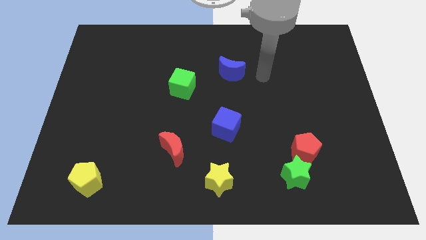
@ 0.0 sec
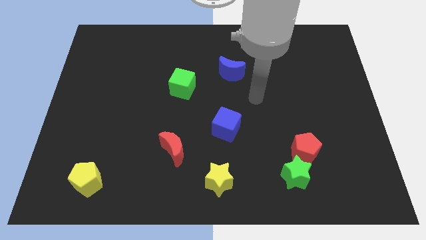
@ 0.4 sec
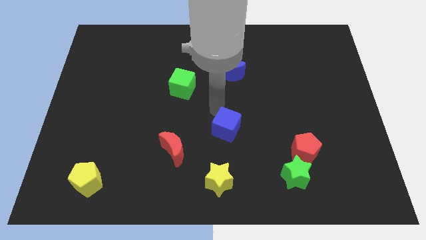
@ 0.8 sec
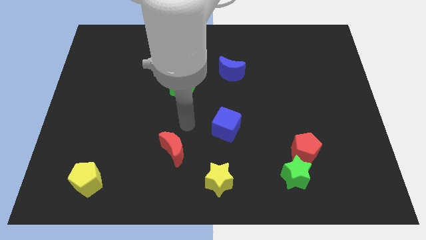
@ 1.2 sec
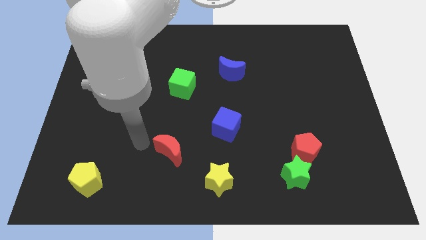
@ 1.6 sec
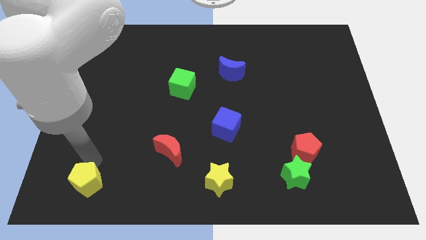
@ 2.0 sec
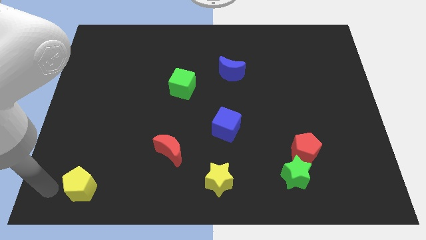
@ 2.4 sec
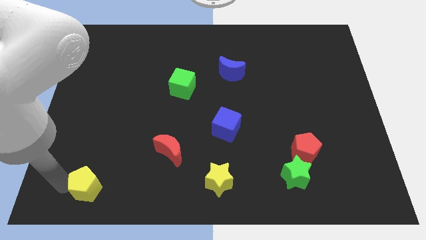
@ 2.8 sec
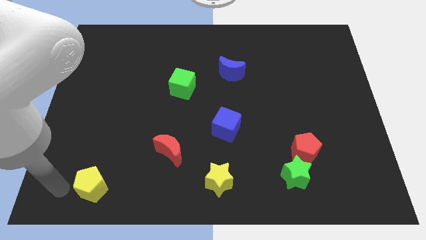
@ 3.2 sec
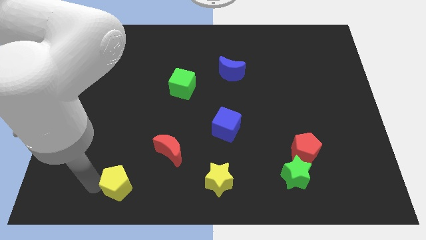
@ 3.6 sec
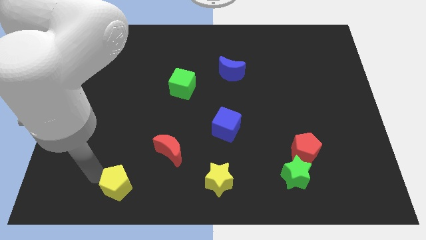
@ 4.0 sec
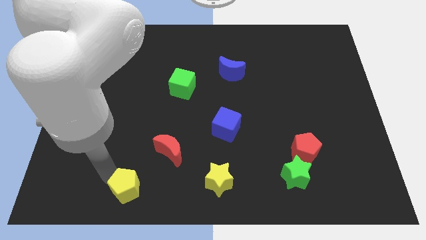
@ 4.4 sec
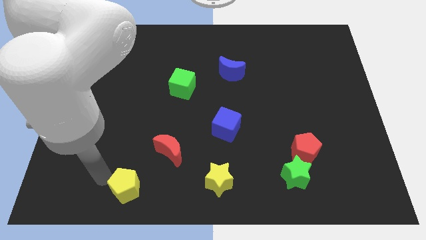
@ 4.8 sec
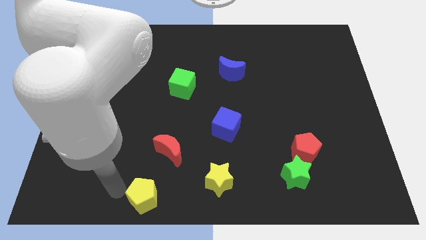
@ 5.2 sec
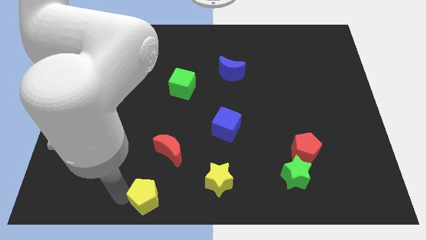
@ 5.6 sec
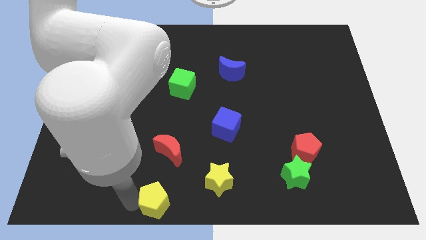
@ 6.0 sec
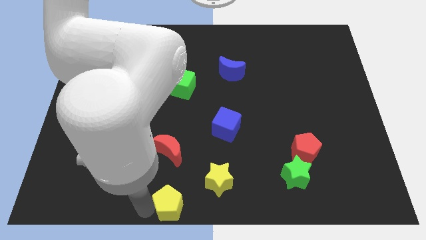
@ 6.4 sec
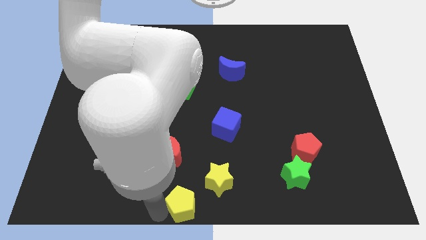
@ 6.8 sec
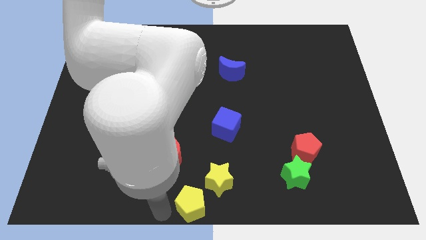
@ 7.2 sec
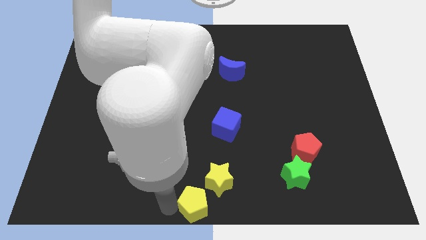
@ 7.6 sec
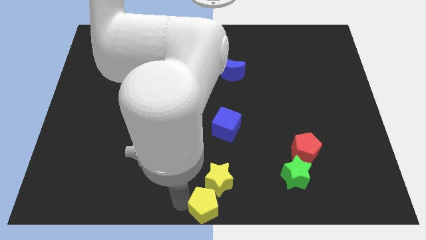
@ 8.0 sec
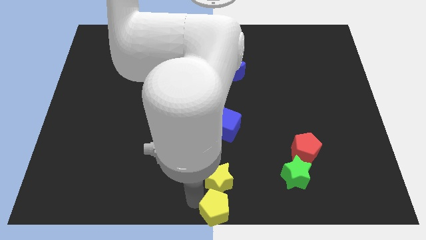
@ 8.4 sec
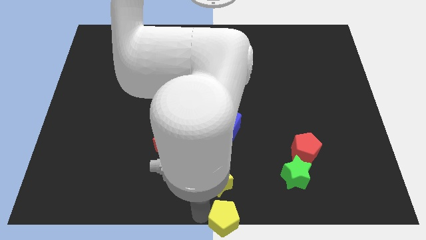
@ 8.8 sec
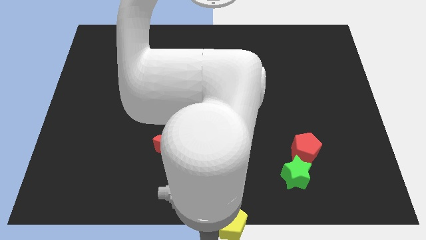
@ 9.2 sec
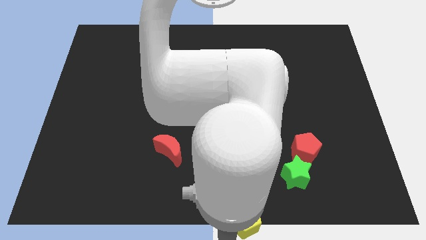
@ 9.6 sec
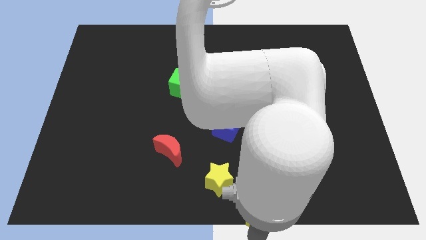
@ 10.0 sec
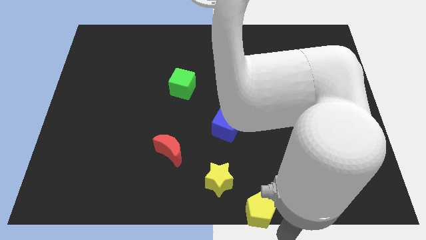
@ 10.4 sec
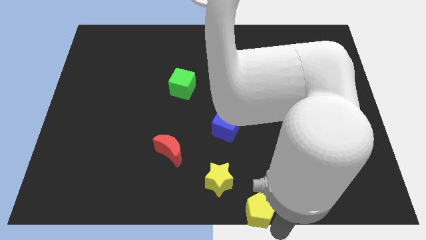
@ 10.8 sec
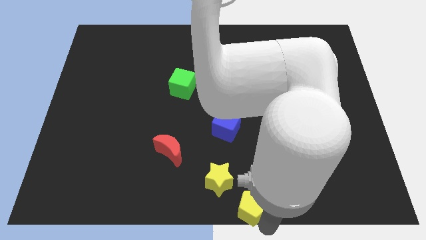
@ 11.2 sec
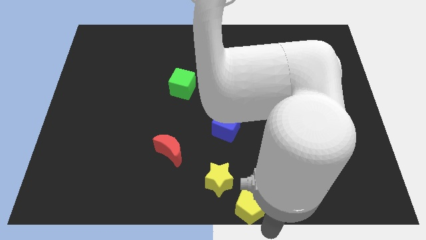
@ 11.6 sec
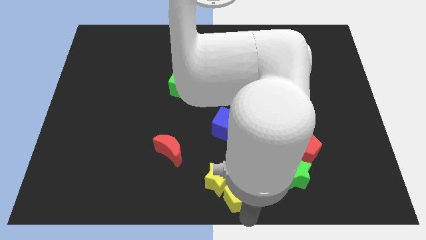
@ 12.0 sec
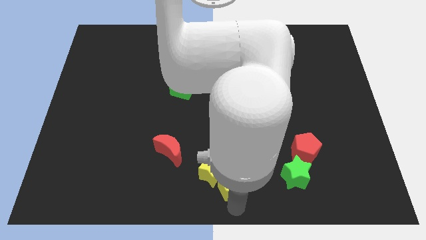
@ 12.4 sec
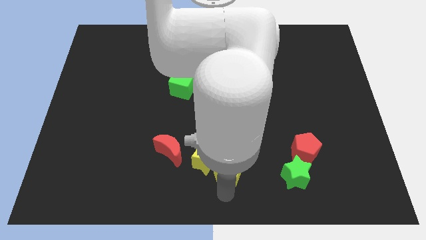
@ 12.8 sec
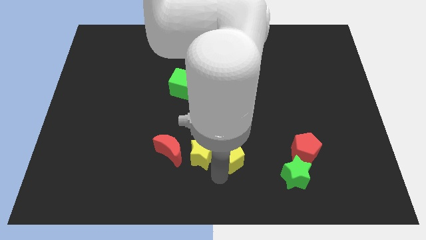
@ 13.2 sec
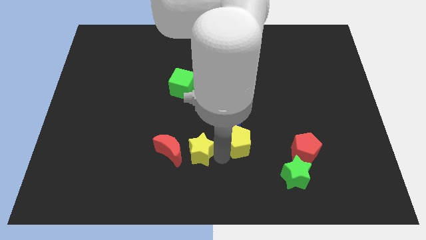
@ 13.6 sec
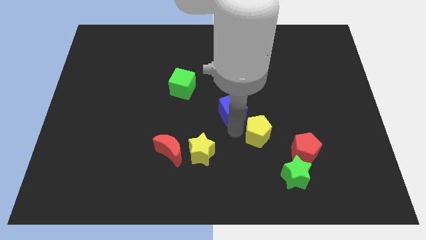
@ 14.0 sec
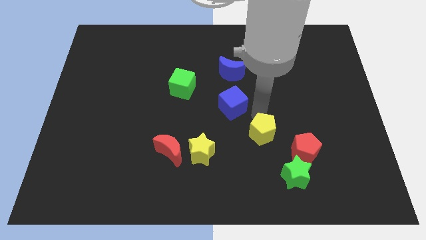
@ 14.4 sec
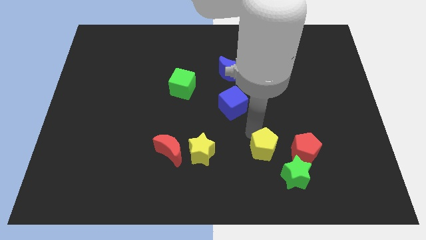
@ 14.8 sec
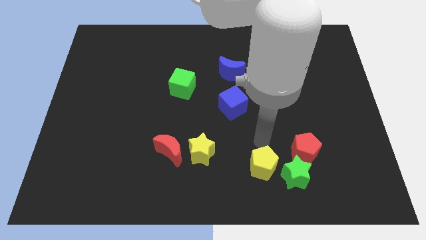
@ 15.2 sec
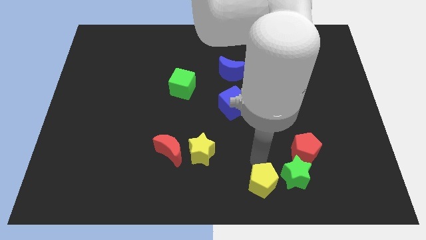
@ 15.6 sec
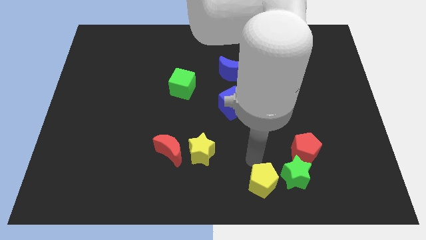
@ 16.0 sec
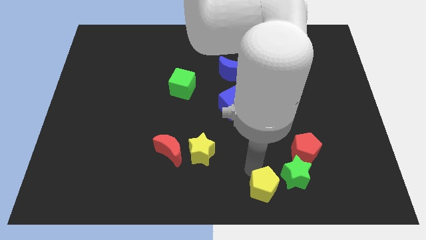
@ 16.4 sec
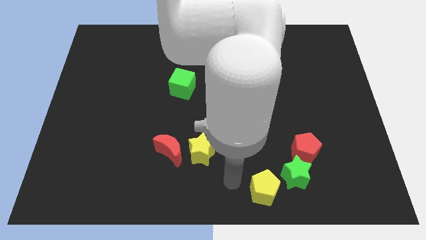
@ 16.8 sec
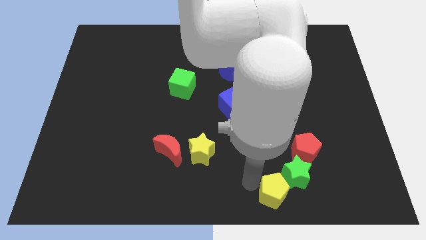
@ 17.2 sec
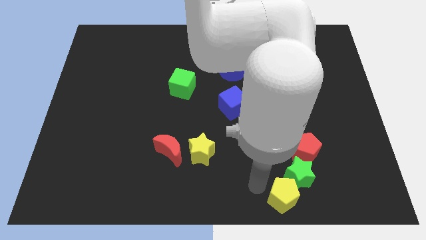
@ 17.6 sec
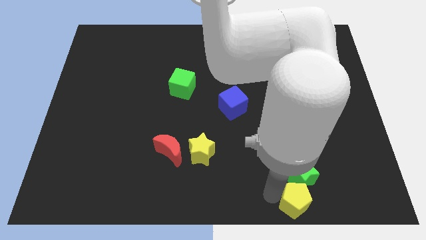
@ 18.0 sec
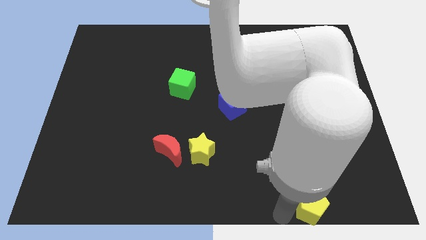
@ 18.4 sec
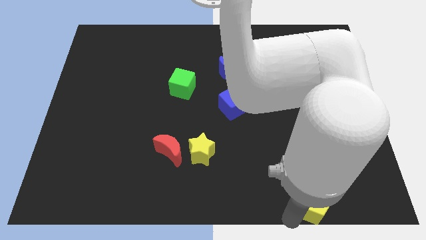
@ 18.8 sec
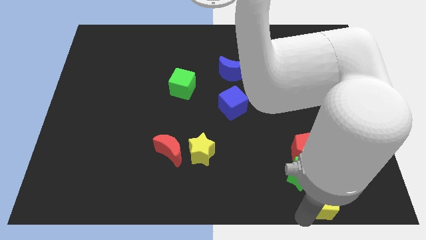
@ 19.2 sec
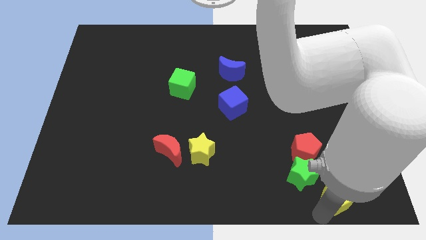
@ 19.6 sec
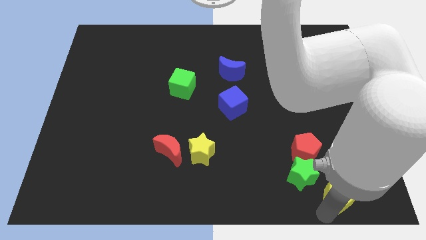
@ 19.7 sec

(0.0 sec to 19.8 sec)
put the yellow pentagon to the right side of the green star

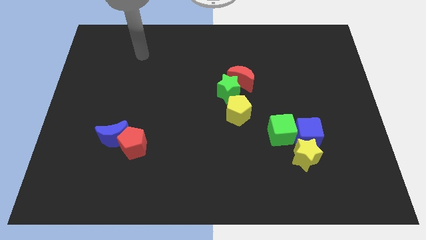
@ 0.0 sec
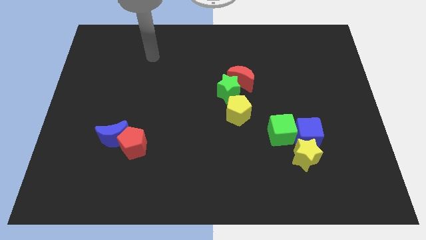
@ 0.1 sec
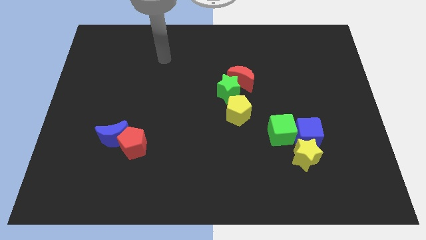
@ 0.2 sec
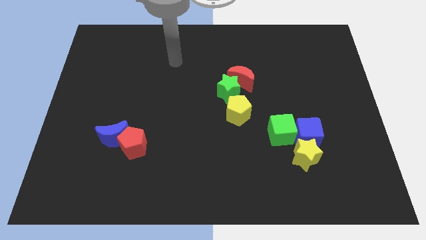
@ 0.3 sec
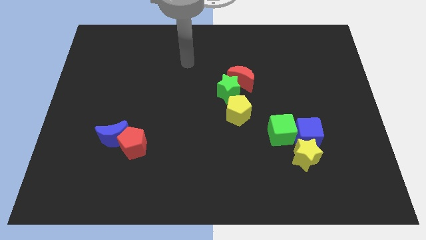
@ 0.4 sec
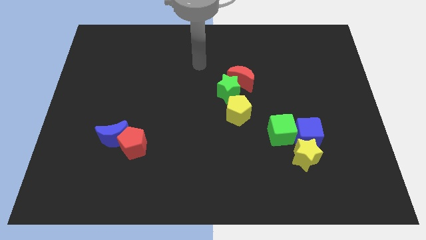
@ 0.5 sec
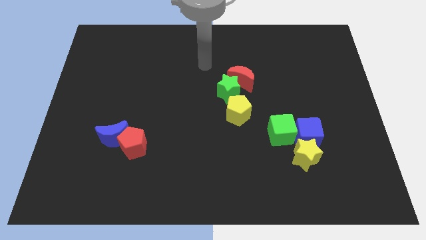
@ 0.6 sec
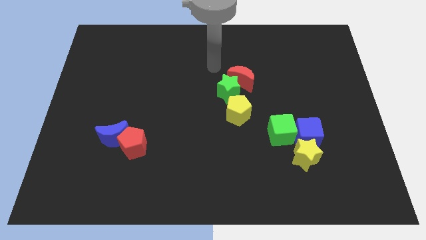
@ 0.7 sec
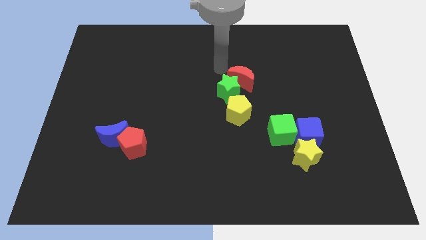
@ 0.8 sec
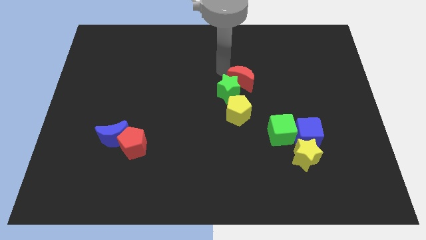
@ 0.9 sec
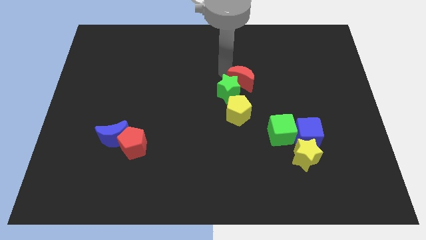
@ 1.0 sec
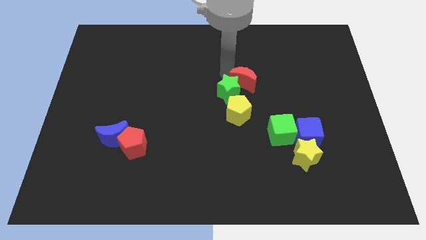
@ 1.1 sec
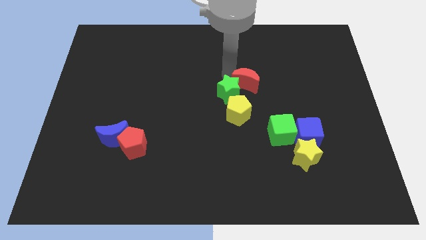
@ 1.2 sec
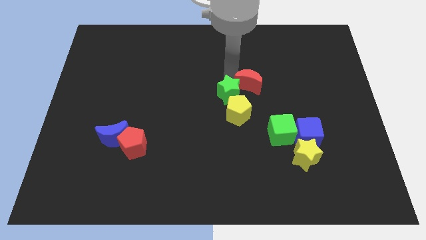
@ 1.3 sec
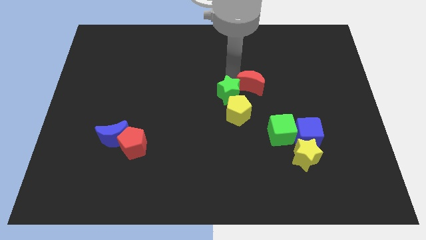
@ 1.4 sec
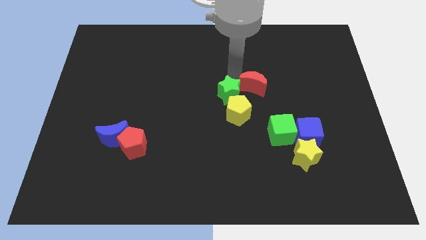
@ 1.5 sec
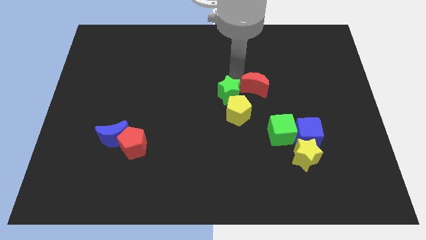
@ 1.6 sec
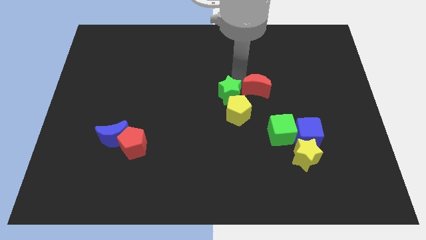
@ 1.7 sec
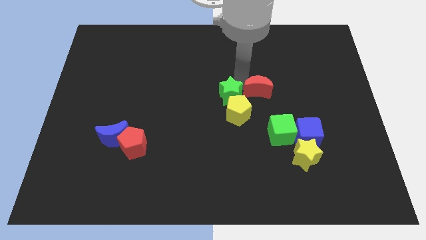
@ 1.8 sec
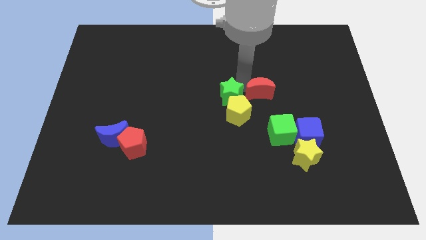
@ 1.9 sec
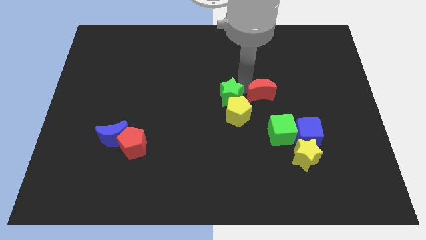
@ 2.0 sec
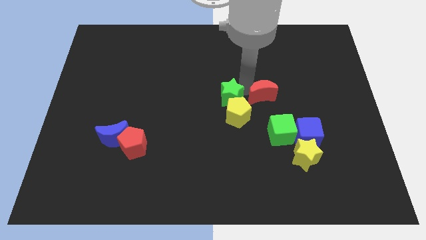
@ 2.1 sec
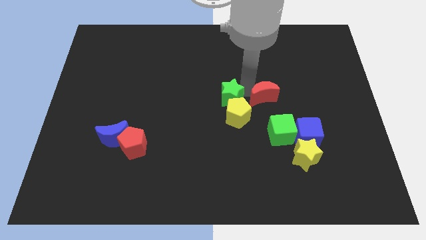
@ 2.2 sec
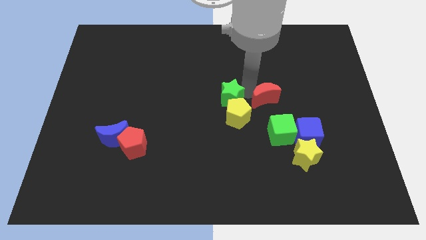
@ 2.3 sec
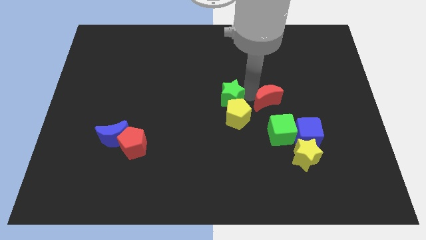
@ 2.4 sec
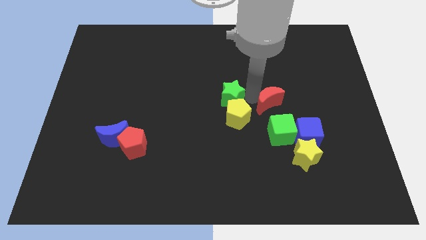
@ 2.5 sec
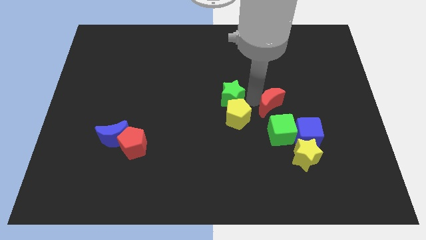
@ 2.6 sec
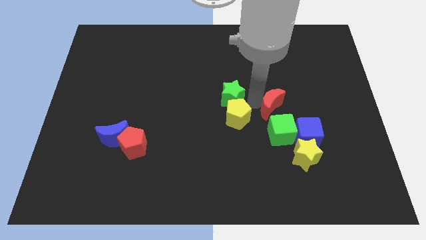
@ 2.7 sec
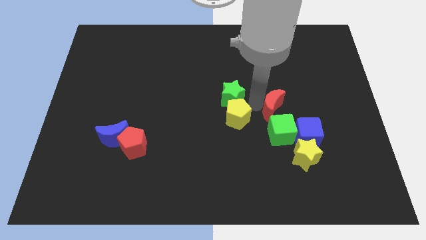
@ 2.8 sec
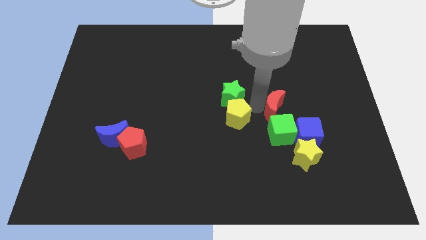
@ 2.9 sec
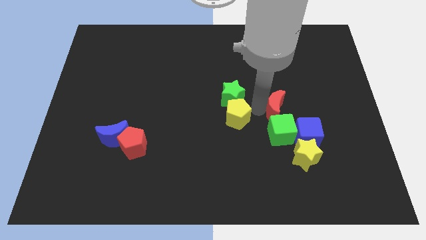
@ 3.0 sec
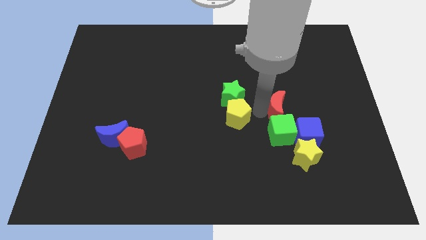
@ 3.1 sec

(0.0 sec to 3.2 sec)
push the red moon to the top right of the green cube
